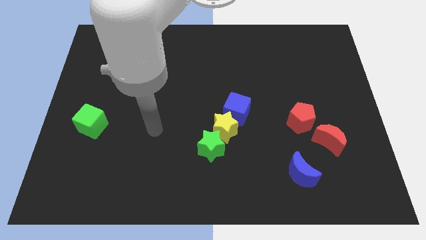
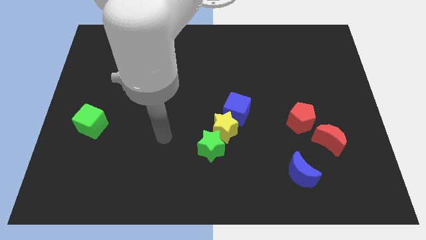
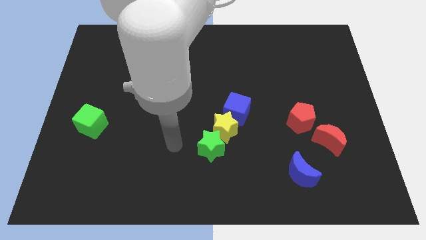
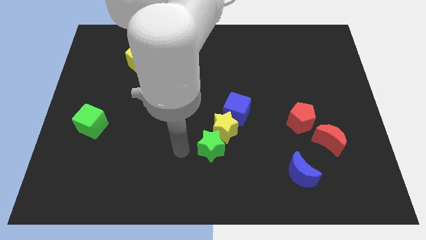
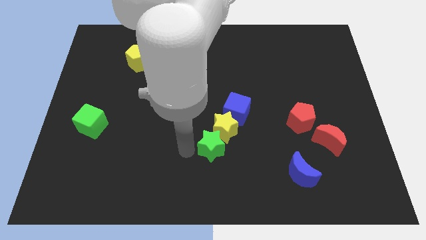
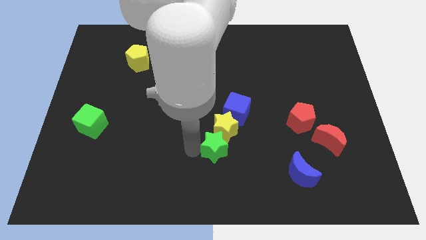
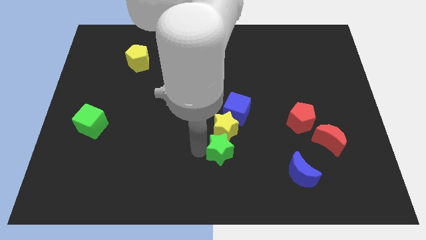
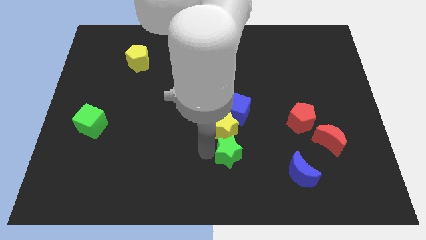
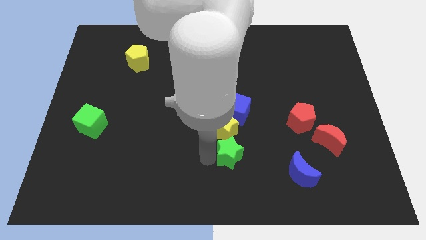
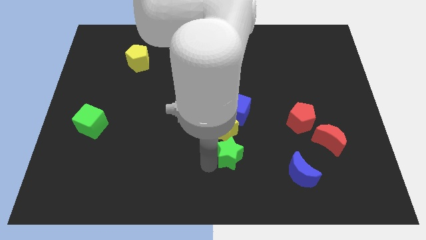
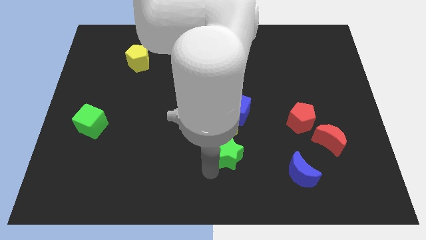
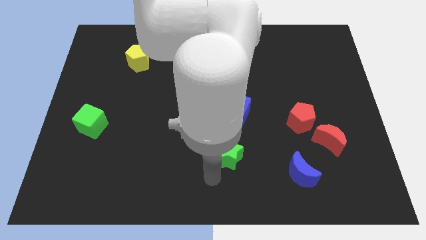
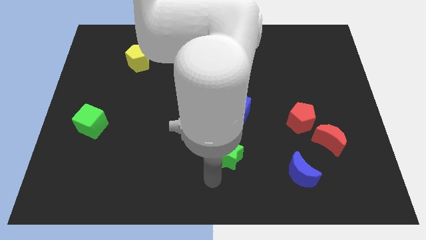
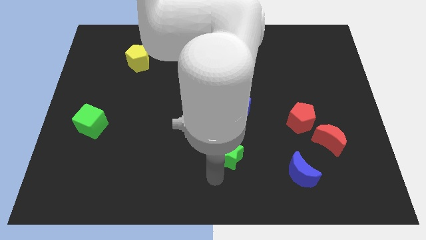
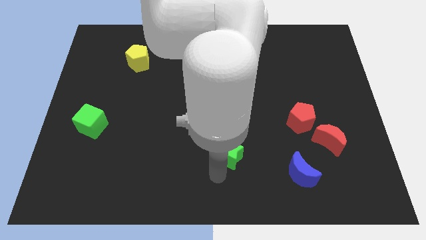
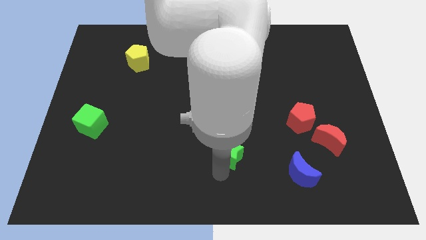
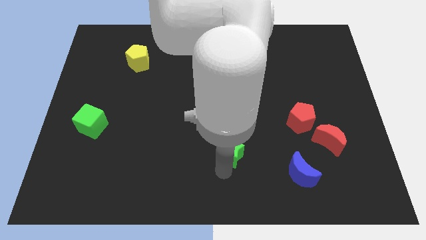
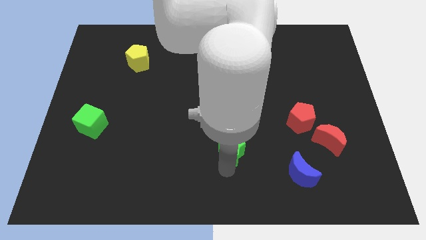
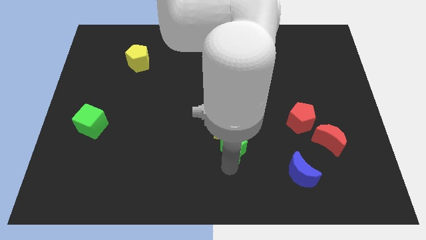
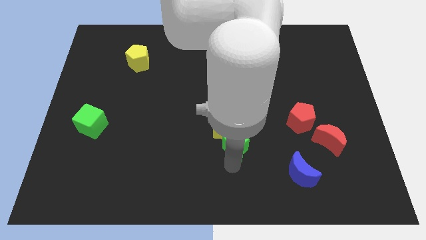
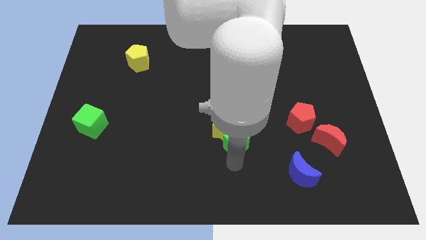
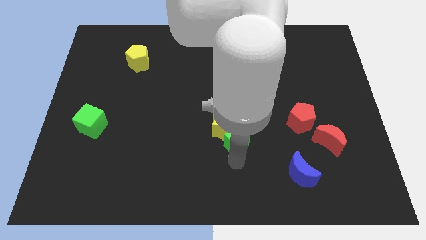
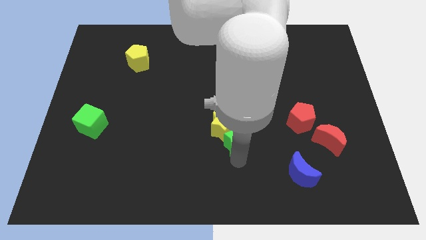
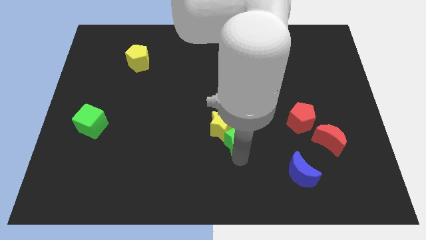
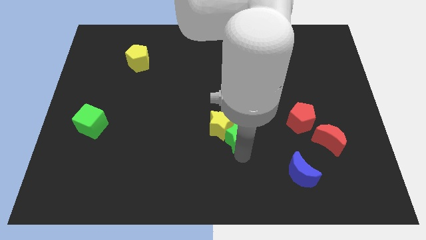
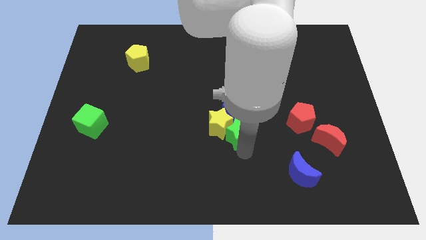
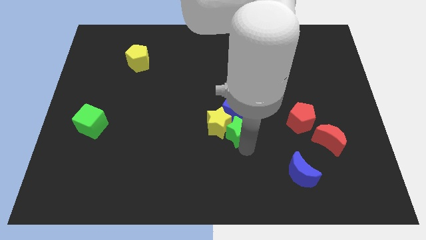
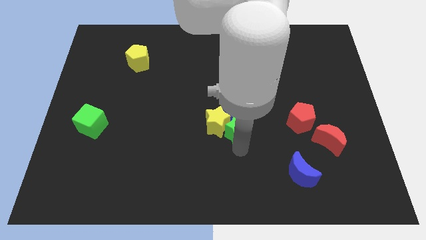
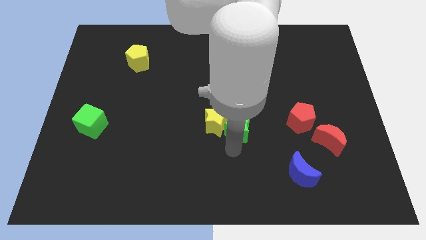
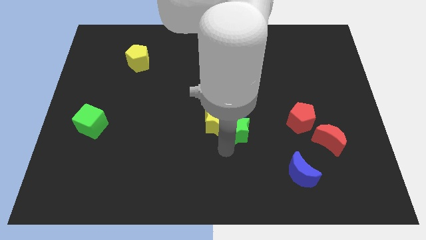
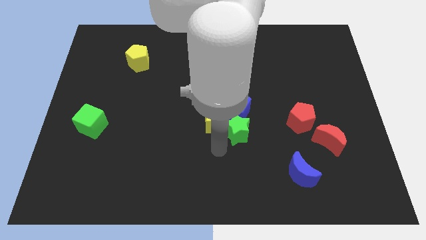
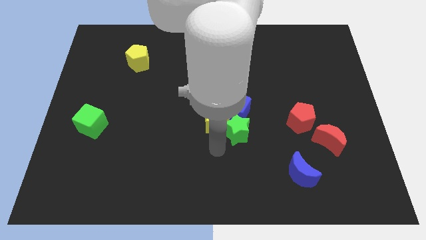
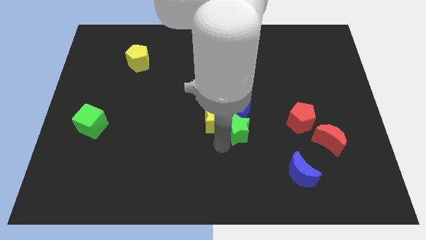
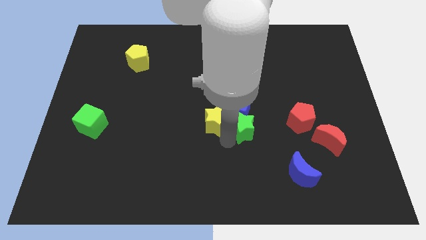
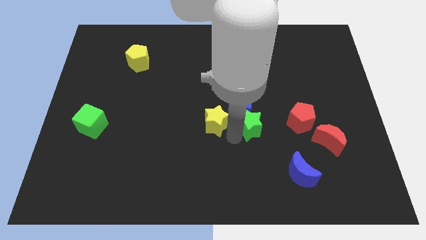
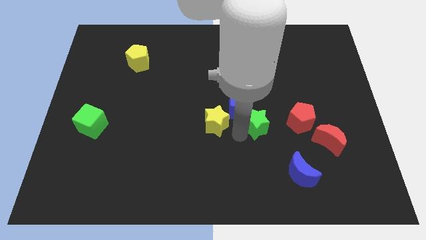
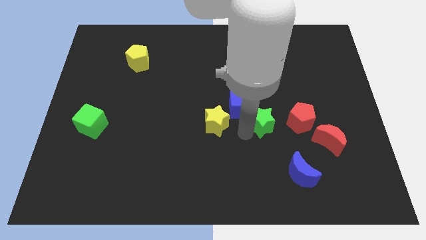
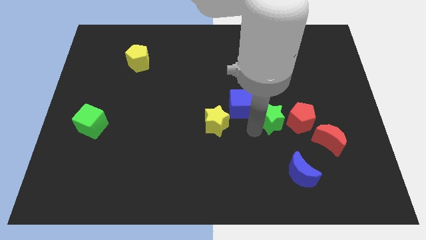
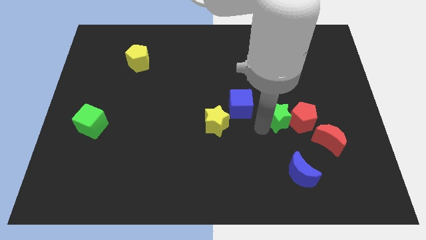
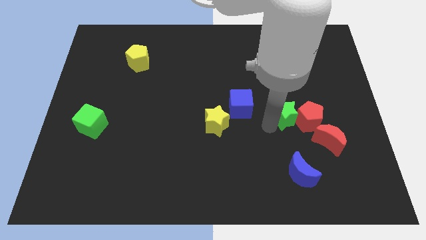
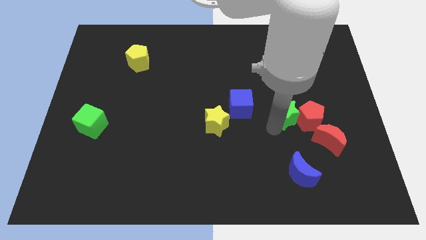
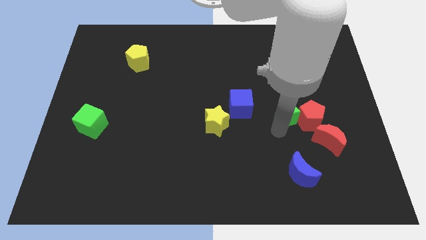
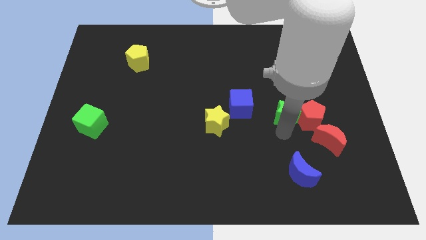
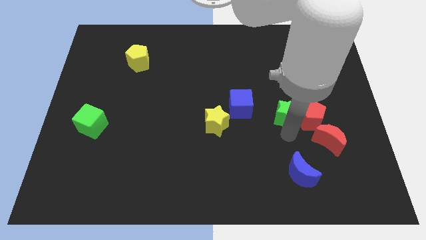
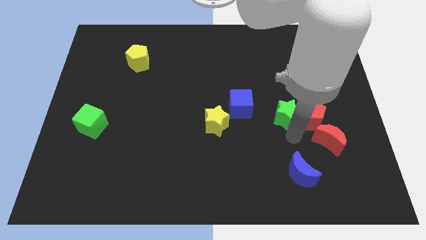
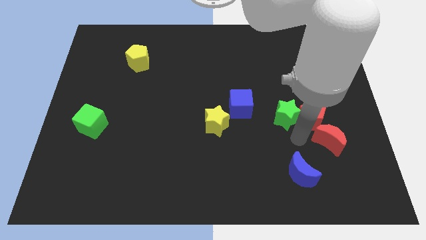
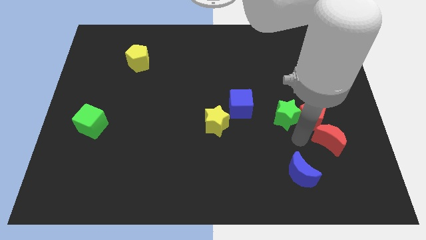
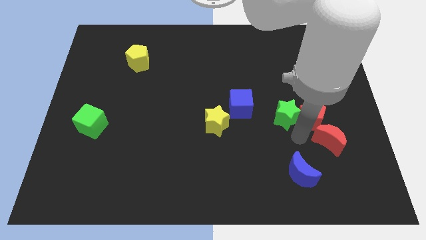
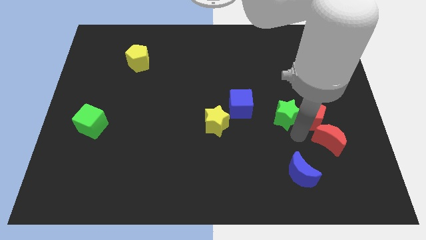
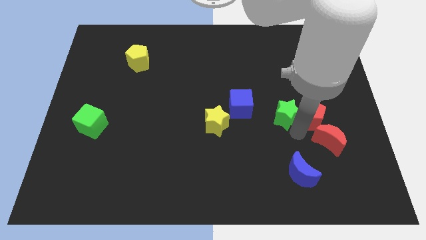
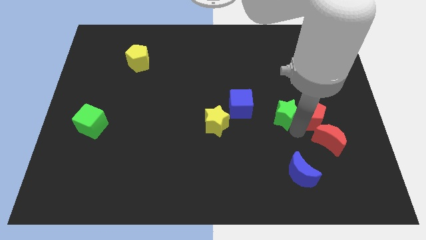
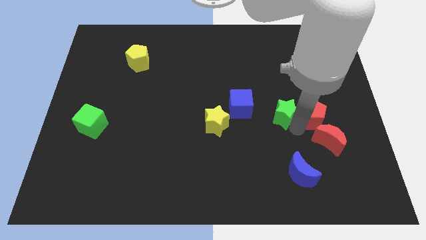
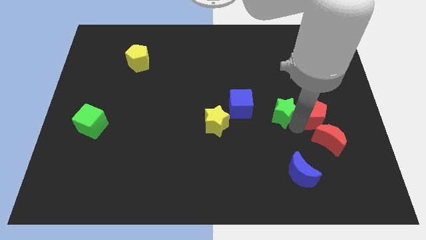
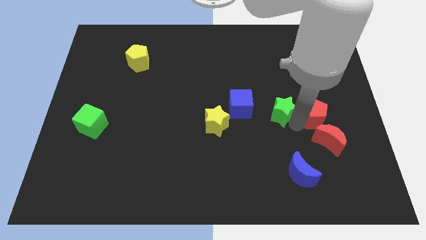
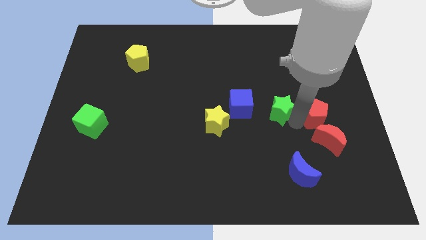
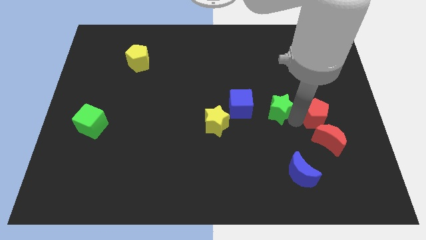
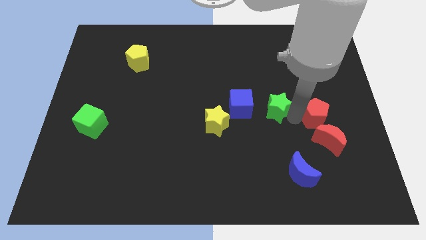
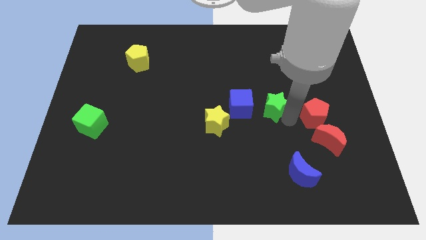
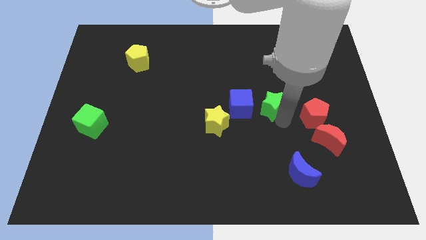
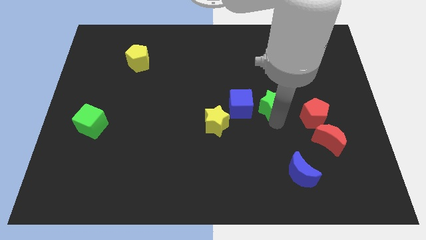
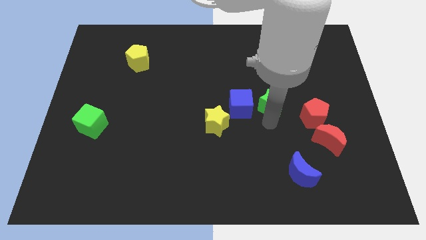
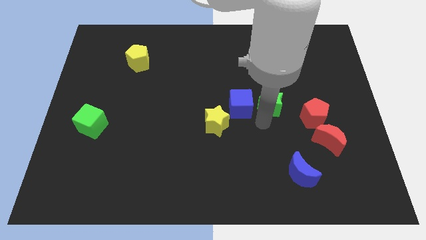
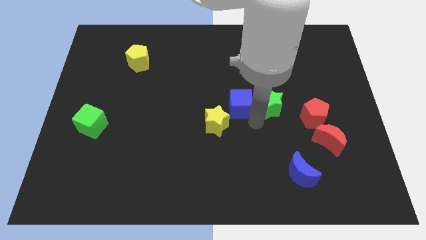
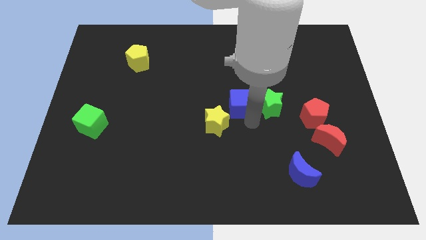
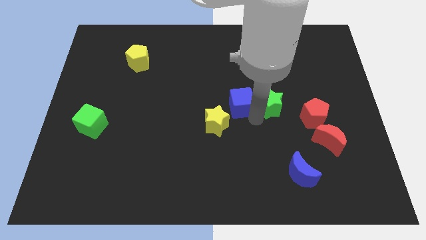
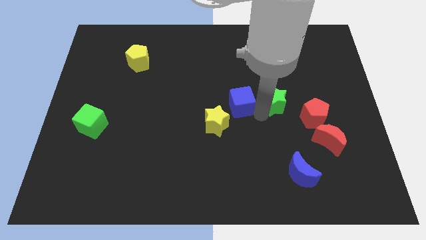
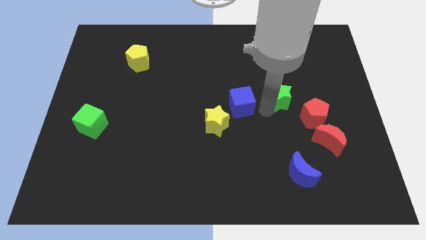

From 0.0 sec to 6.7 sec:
slide the green star upwards and to the right diagonally

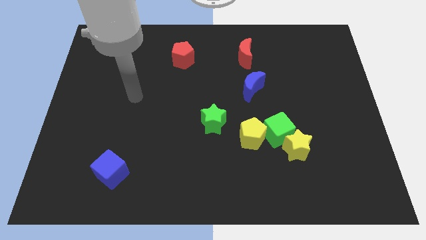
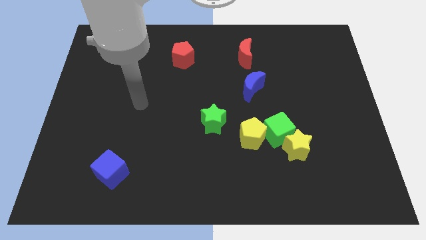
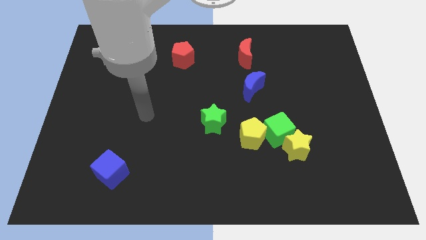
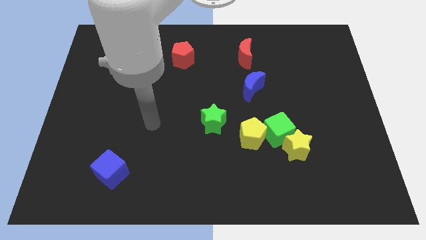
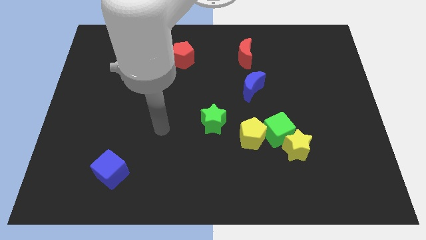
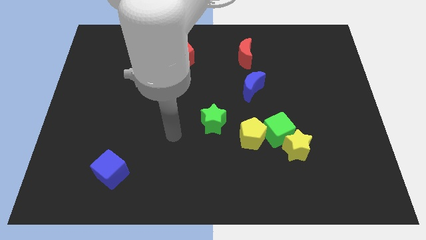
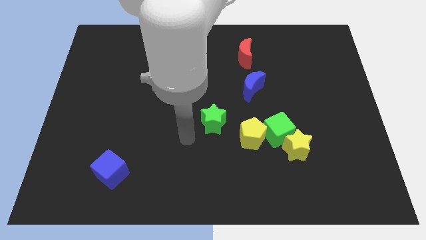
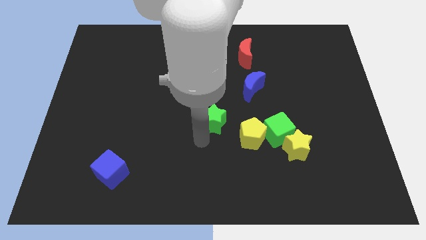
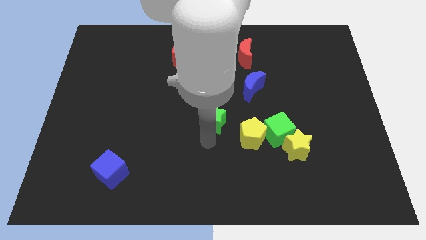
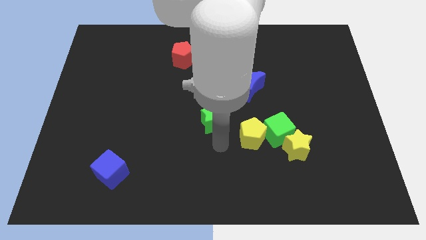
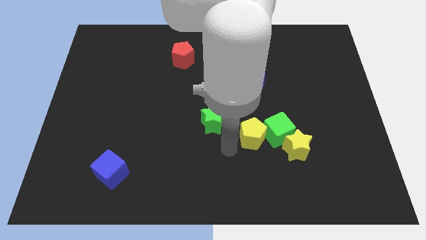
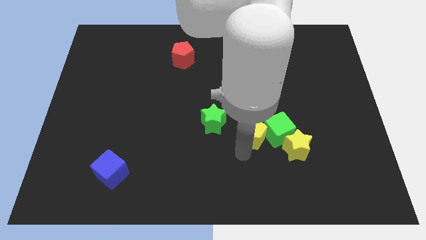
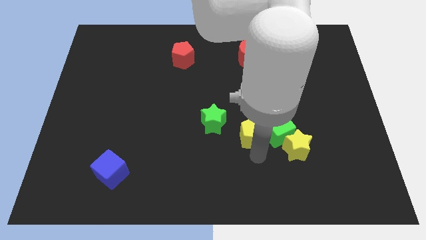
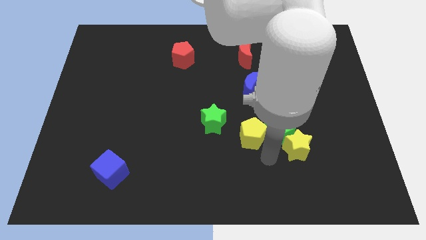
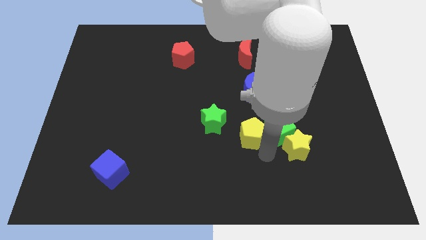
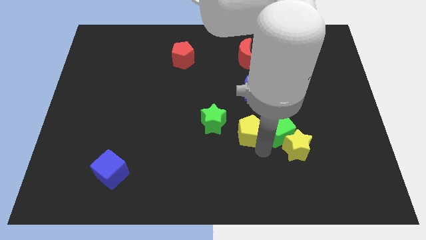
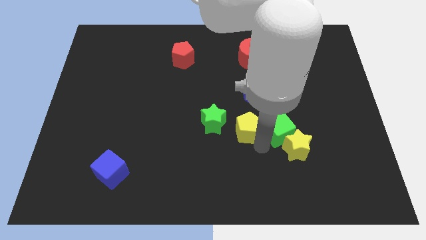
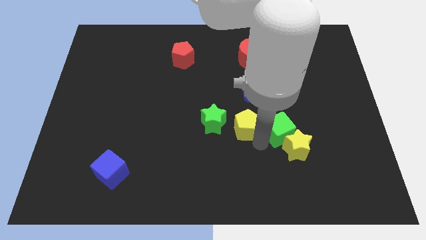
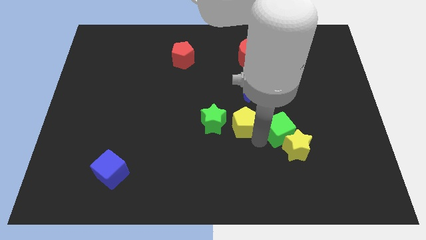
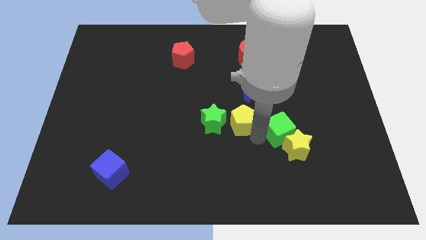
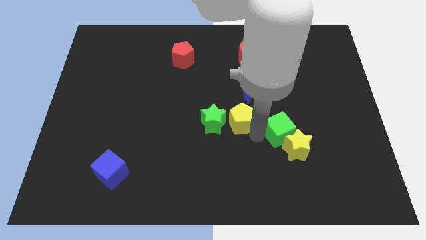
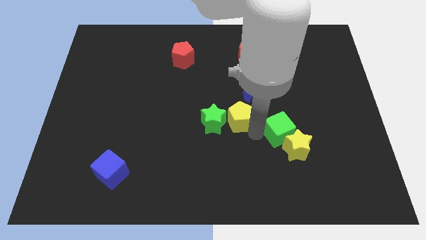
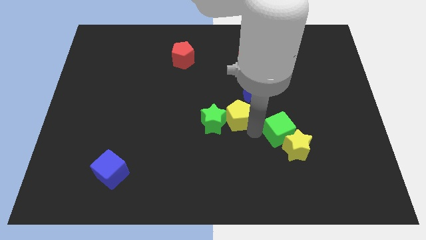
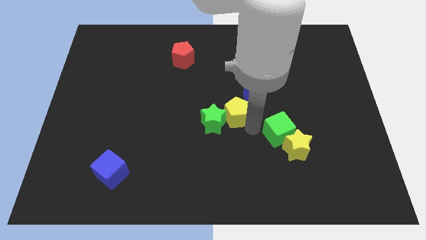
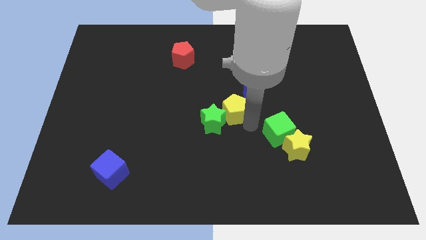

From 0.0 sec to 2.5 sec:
push the yellow pentagon up and left a little bit
